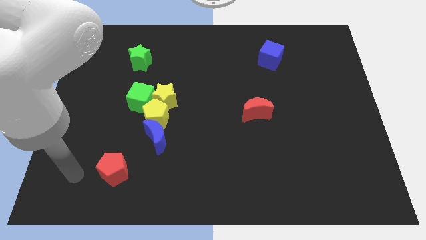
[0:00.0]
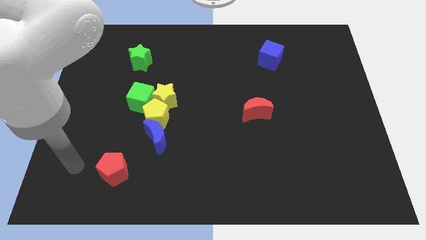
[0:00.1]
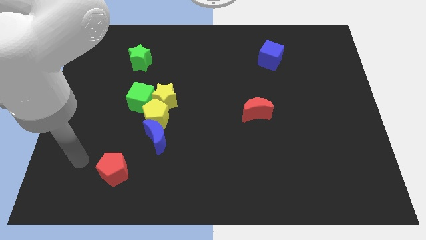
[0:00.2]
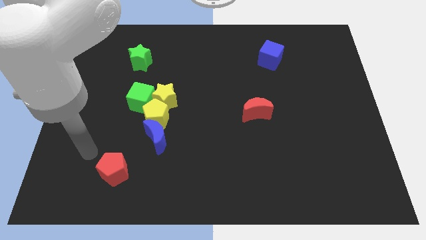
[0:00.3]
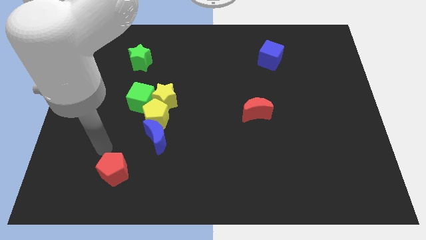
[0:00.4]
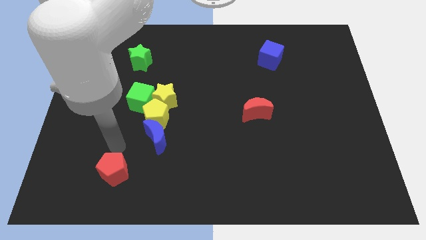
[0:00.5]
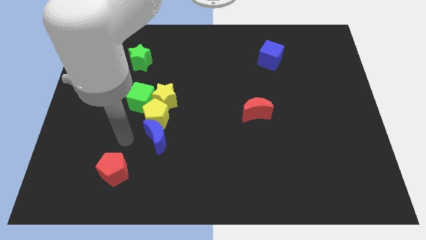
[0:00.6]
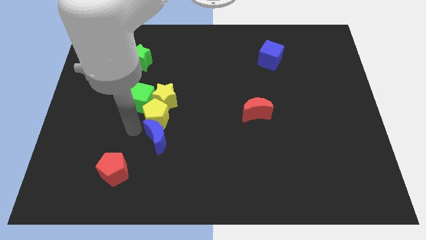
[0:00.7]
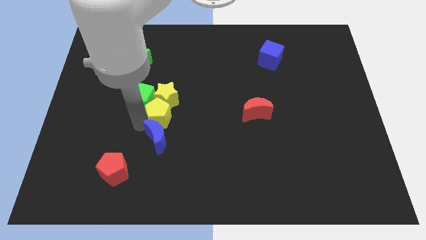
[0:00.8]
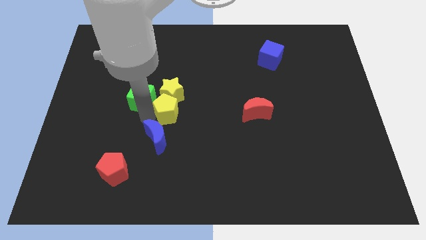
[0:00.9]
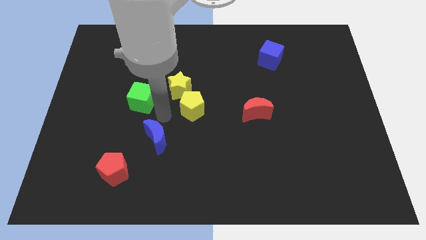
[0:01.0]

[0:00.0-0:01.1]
separate the blue moon from the yellow pentagon

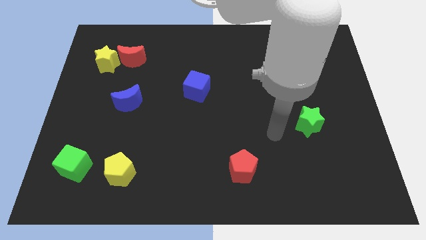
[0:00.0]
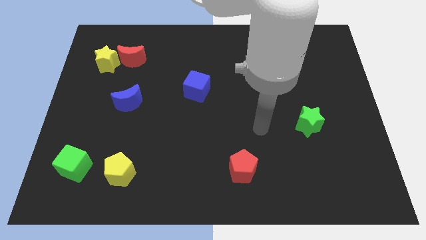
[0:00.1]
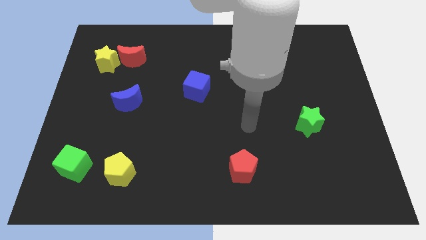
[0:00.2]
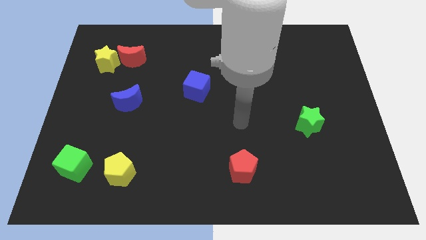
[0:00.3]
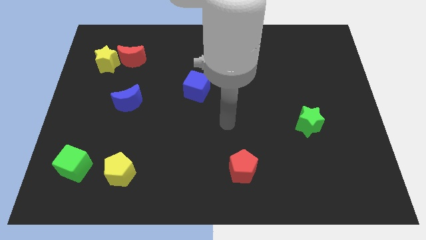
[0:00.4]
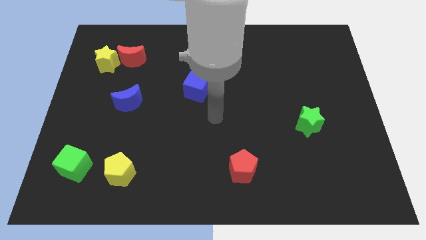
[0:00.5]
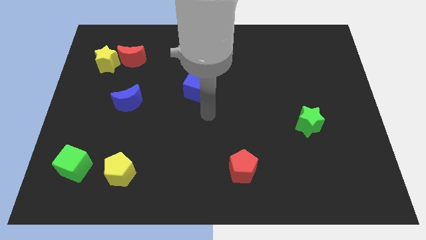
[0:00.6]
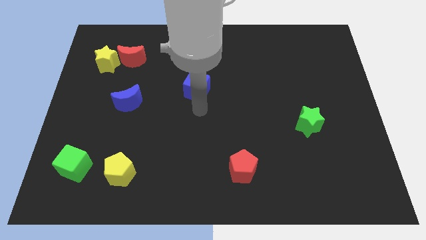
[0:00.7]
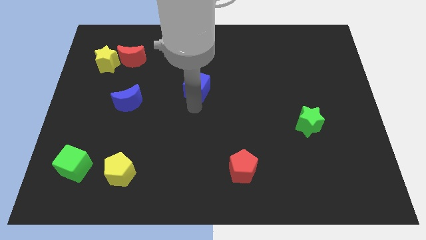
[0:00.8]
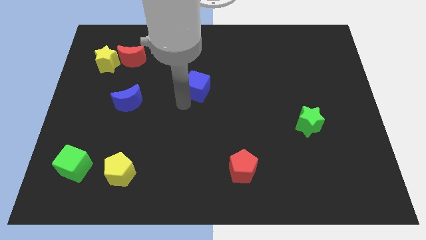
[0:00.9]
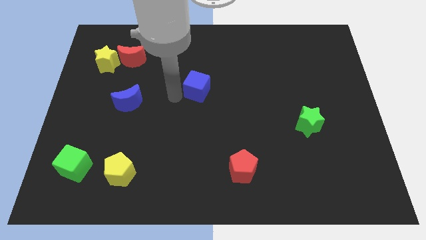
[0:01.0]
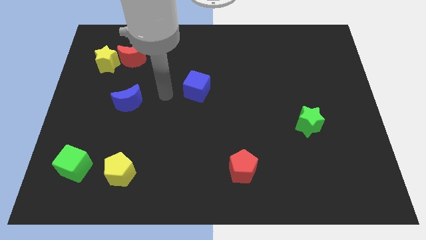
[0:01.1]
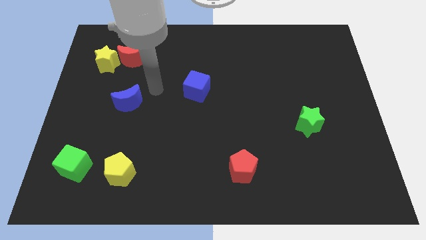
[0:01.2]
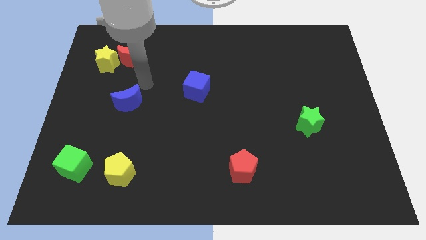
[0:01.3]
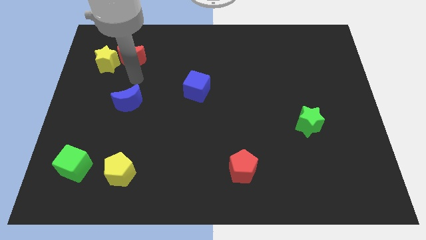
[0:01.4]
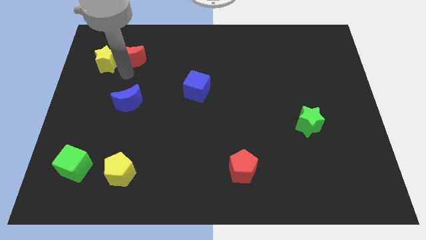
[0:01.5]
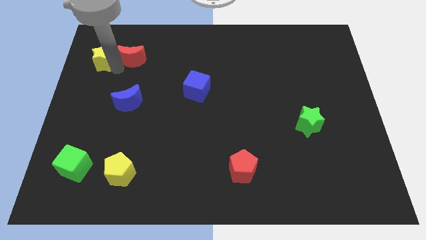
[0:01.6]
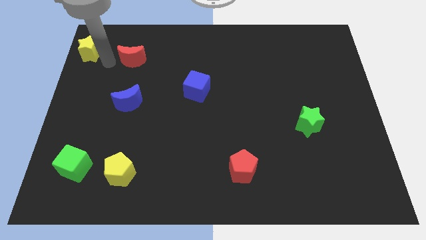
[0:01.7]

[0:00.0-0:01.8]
separate the red moon from the yellow star

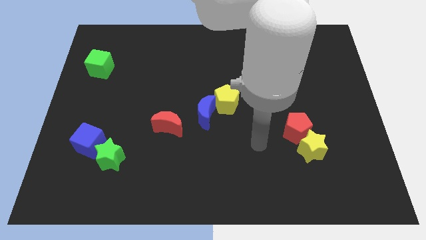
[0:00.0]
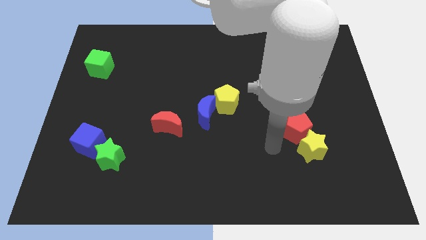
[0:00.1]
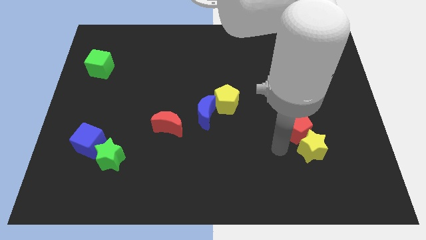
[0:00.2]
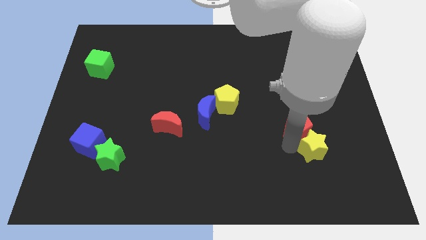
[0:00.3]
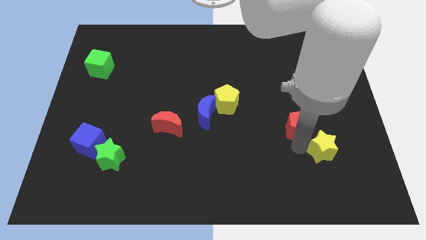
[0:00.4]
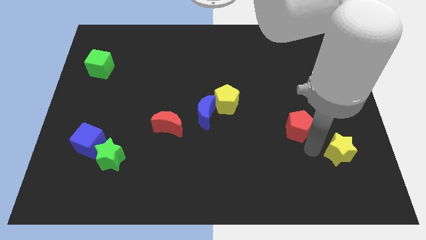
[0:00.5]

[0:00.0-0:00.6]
separate the red pentagon from the yellow star

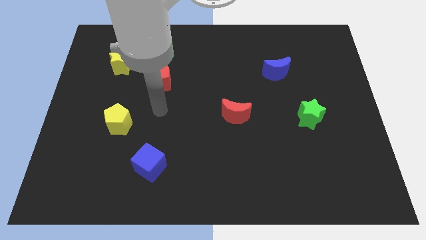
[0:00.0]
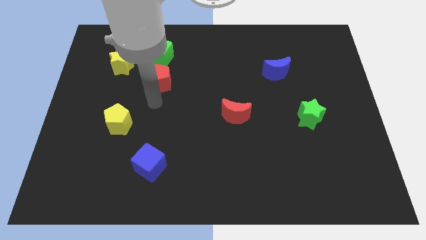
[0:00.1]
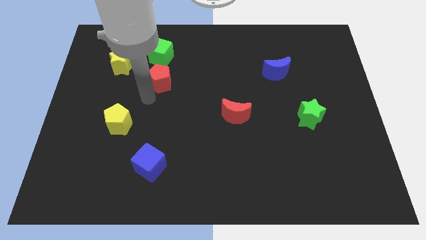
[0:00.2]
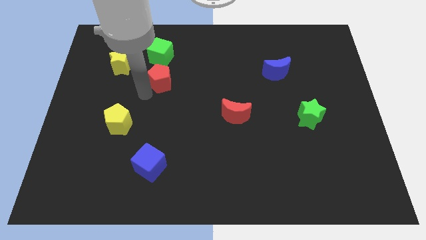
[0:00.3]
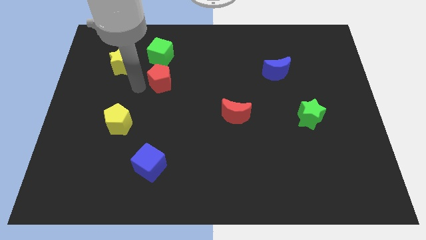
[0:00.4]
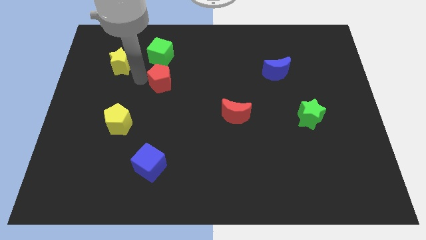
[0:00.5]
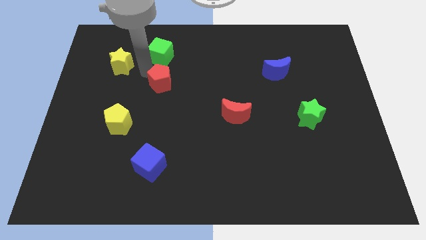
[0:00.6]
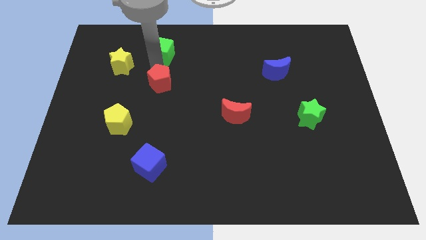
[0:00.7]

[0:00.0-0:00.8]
separate the red pentagon from the green cube

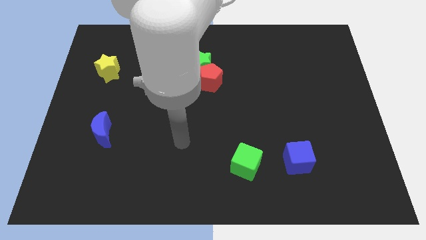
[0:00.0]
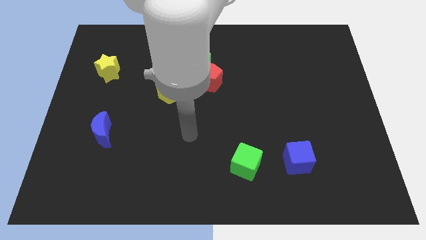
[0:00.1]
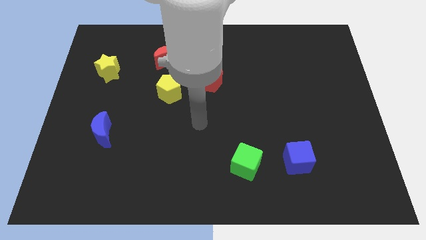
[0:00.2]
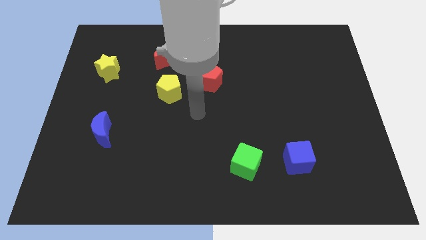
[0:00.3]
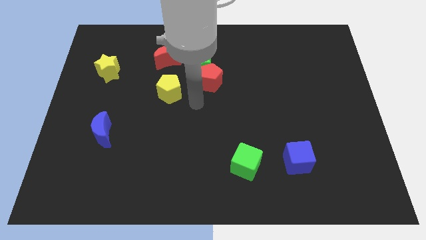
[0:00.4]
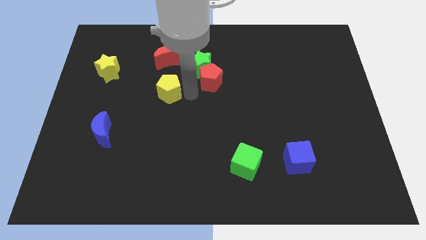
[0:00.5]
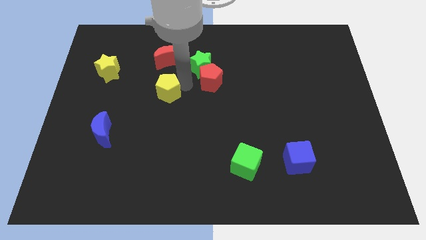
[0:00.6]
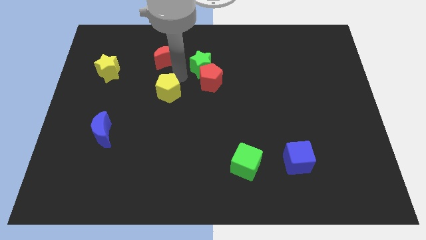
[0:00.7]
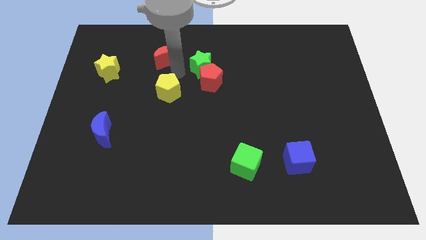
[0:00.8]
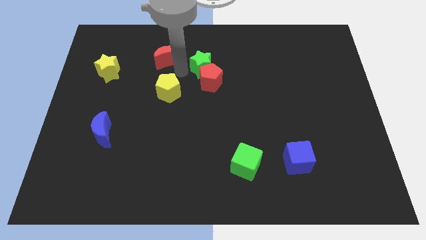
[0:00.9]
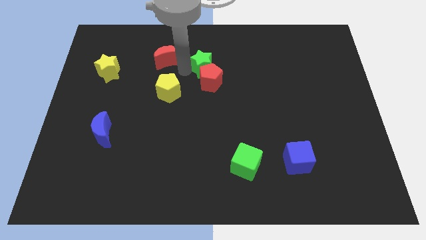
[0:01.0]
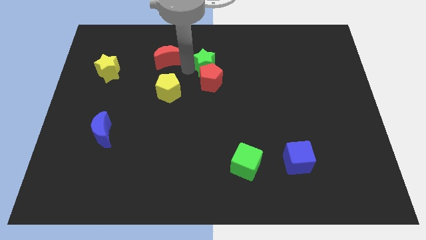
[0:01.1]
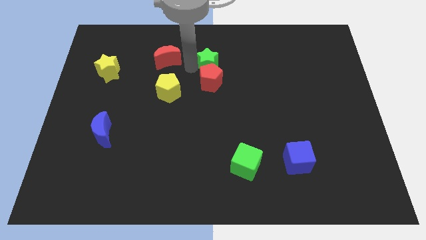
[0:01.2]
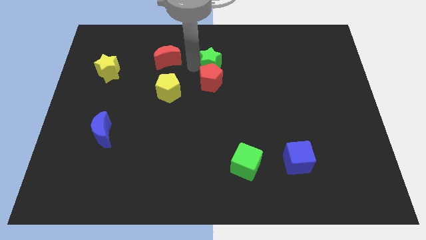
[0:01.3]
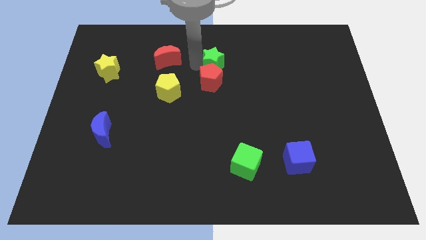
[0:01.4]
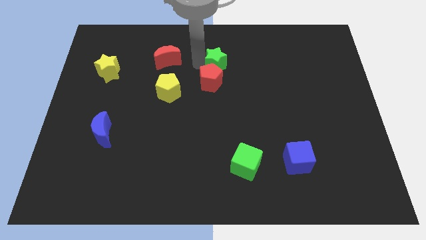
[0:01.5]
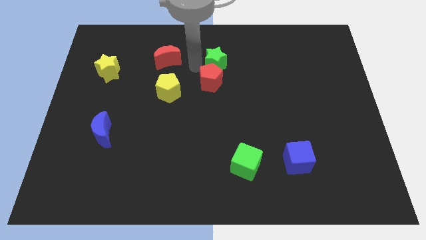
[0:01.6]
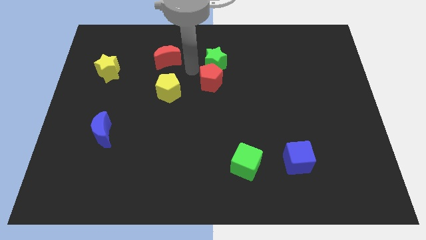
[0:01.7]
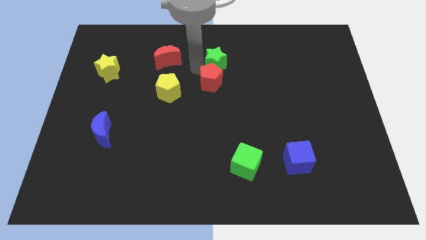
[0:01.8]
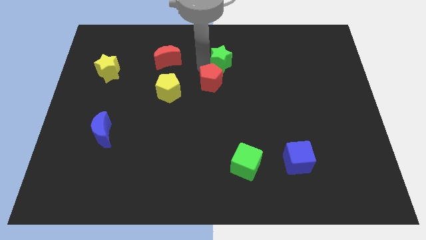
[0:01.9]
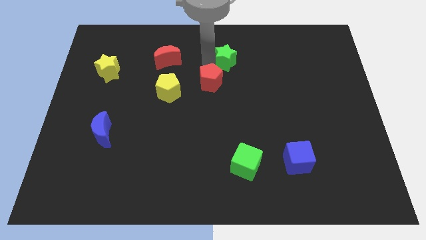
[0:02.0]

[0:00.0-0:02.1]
pull the green star apart from the red pentagon and red moon

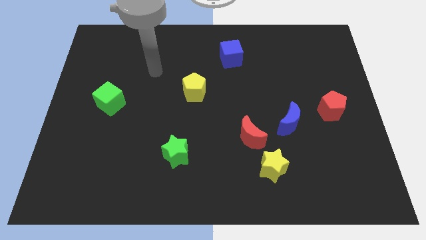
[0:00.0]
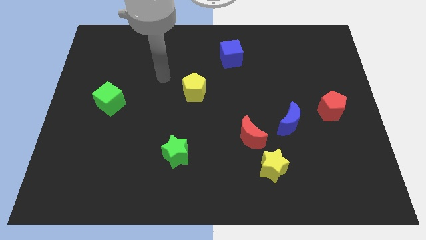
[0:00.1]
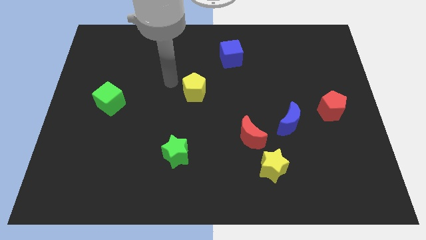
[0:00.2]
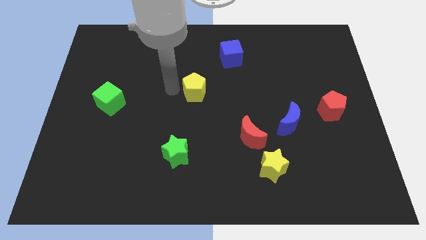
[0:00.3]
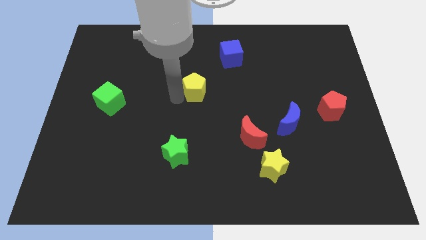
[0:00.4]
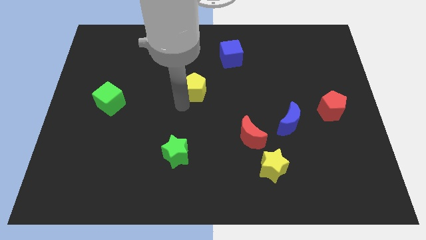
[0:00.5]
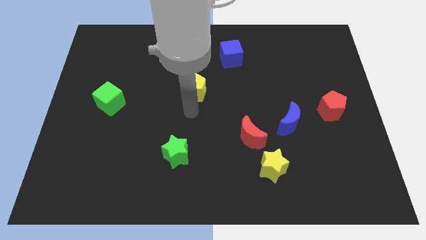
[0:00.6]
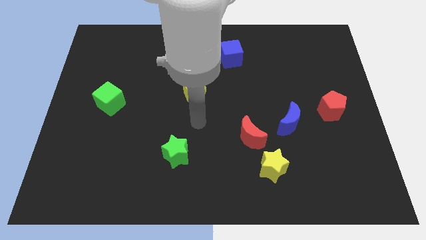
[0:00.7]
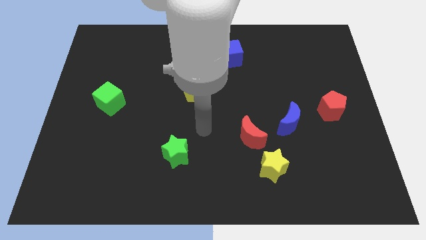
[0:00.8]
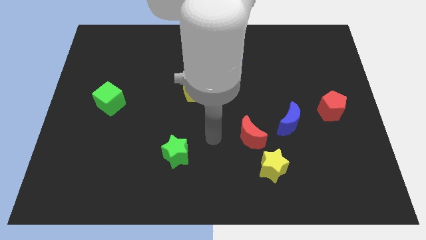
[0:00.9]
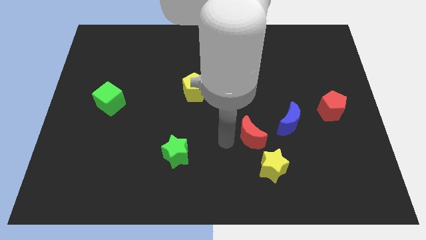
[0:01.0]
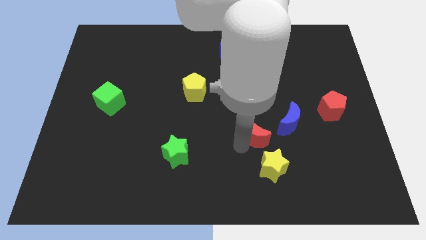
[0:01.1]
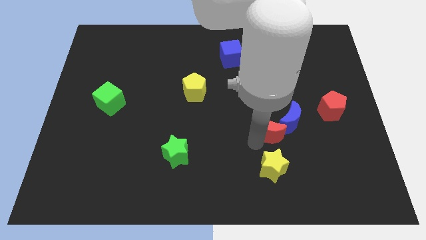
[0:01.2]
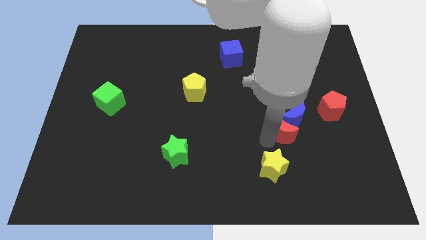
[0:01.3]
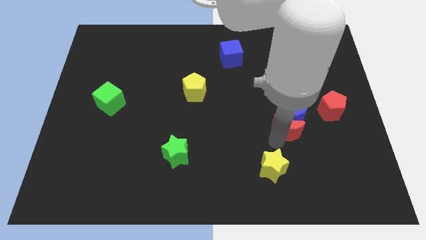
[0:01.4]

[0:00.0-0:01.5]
pull the yellow star apart from the red moon

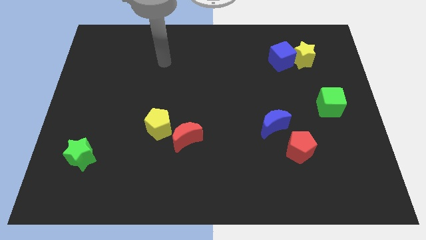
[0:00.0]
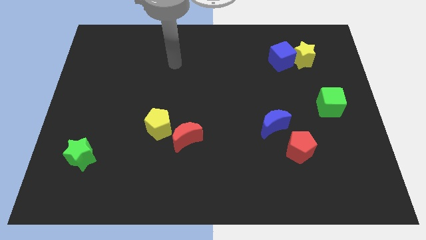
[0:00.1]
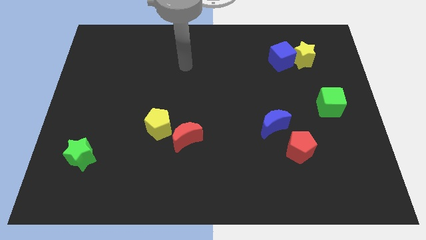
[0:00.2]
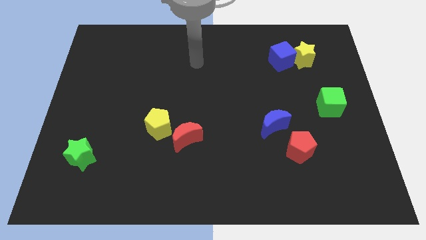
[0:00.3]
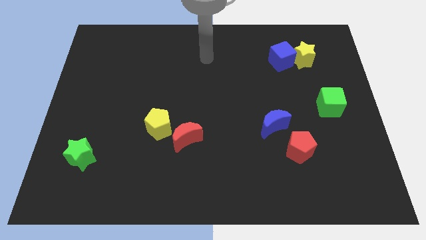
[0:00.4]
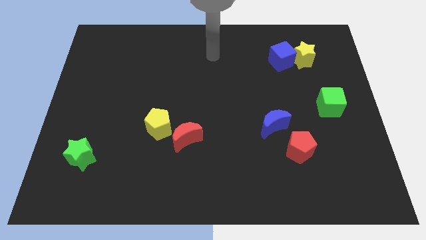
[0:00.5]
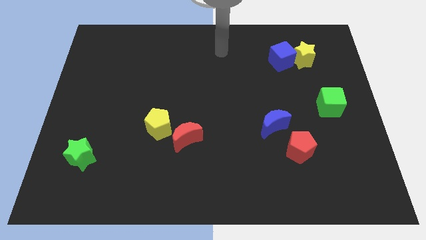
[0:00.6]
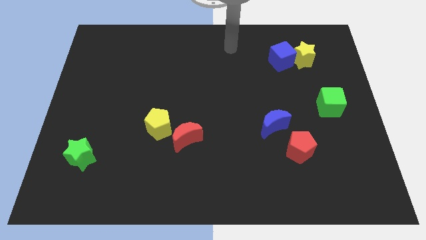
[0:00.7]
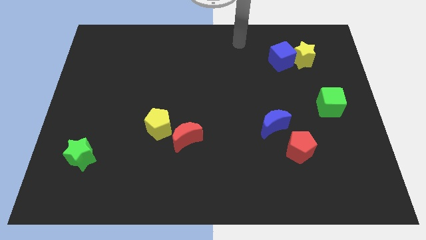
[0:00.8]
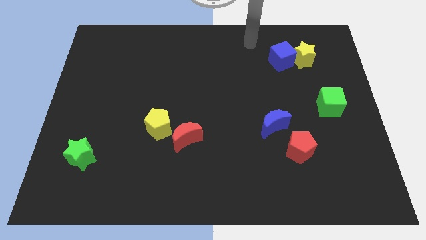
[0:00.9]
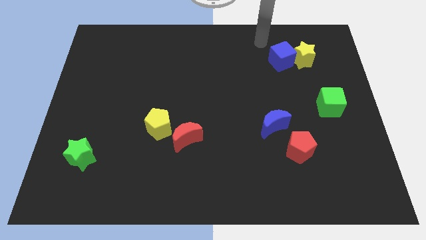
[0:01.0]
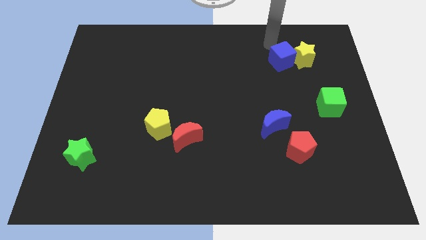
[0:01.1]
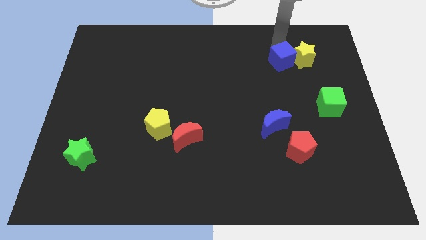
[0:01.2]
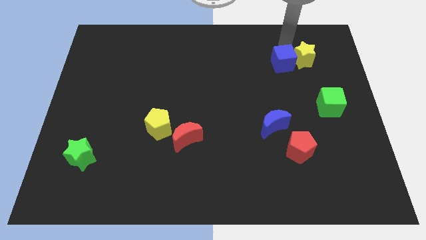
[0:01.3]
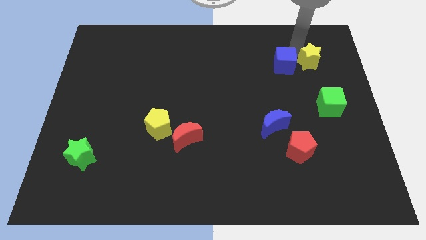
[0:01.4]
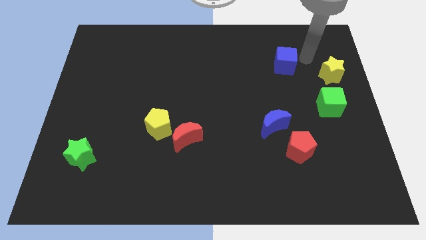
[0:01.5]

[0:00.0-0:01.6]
separate the blue cube from the yellow star
